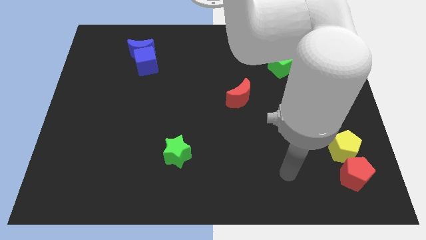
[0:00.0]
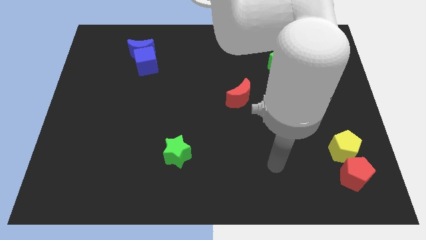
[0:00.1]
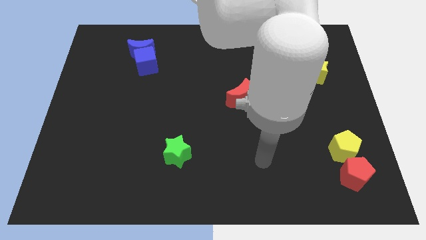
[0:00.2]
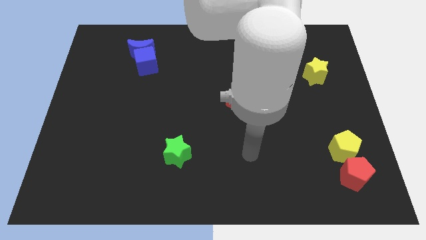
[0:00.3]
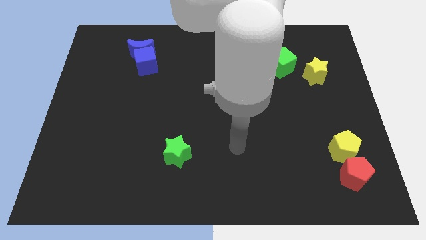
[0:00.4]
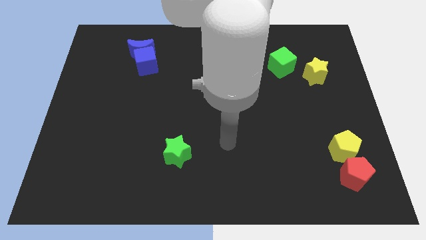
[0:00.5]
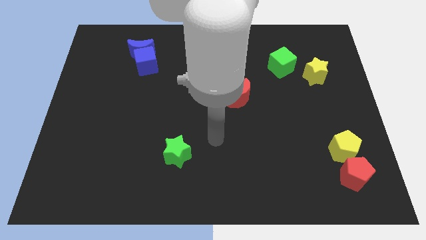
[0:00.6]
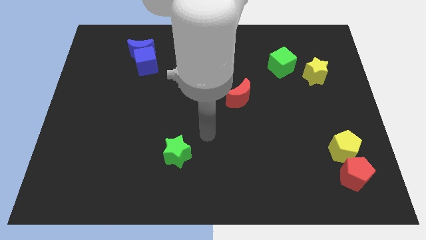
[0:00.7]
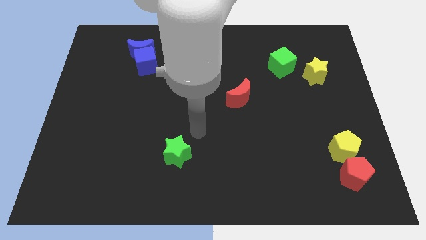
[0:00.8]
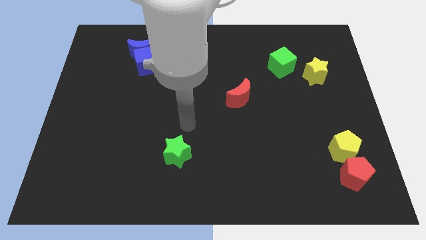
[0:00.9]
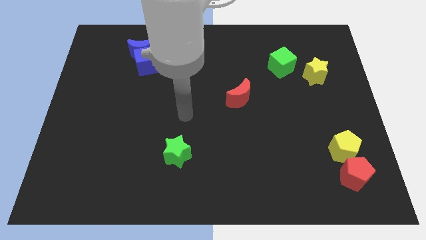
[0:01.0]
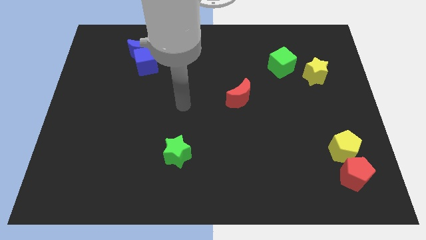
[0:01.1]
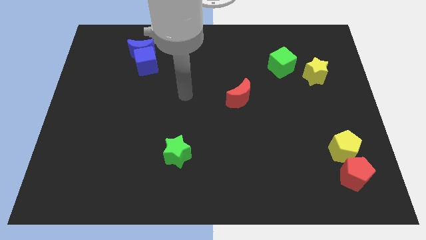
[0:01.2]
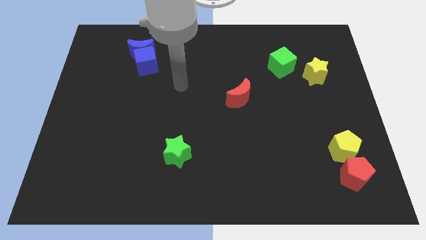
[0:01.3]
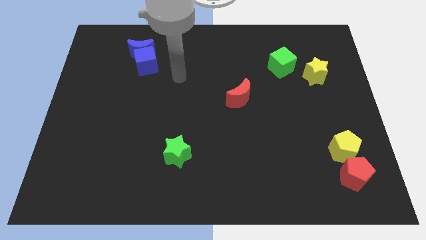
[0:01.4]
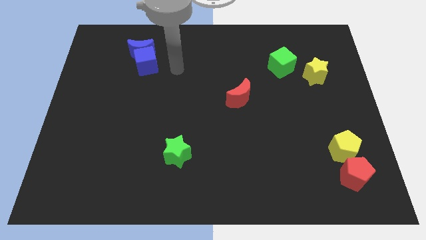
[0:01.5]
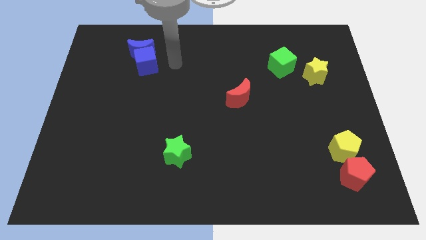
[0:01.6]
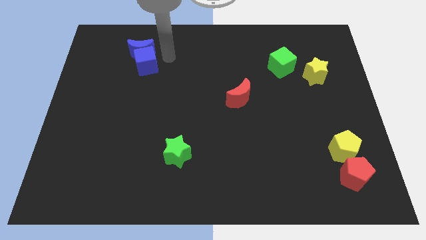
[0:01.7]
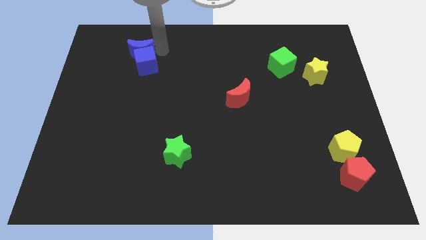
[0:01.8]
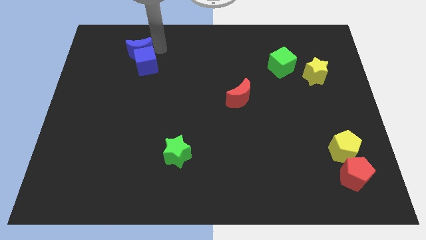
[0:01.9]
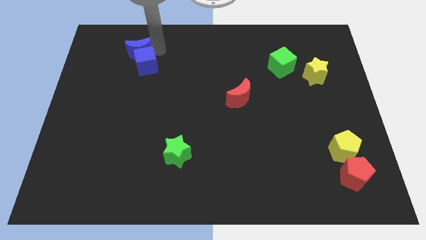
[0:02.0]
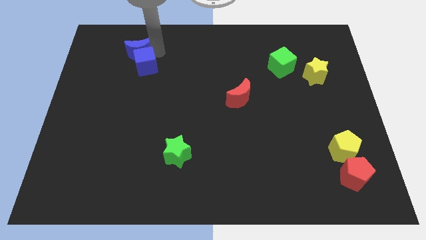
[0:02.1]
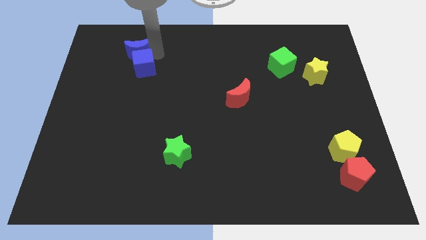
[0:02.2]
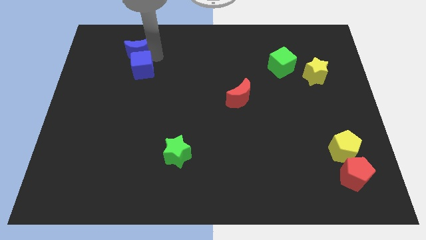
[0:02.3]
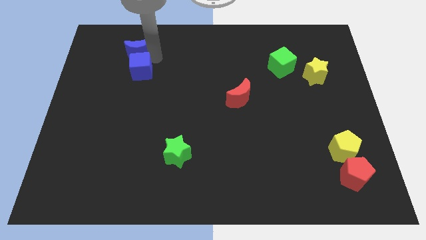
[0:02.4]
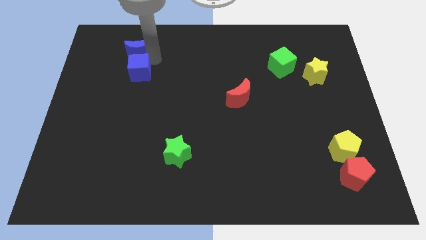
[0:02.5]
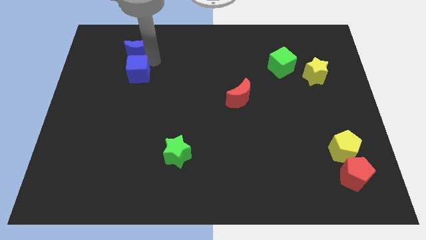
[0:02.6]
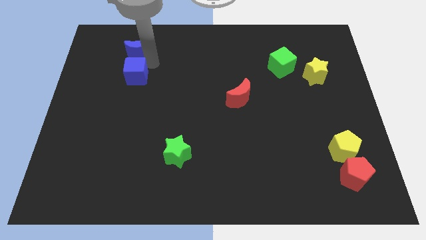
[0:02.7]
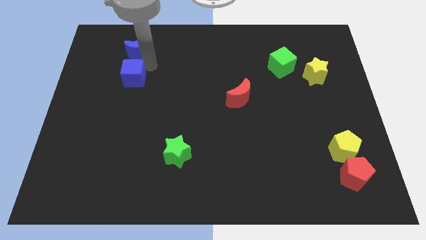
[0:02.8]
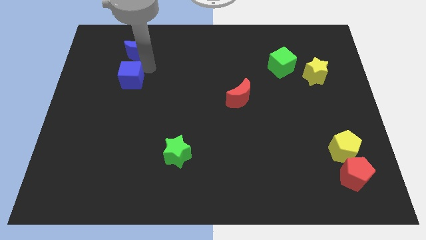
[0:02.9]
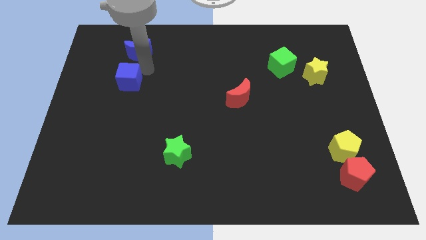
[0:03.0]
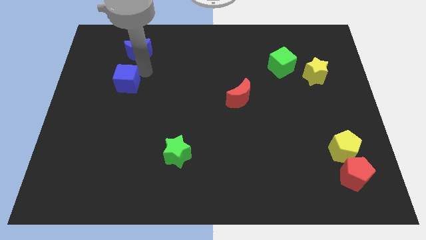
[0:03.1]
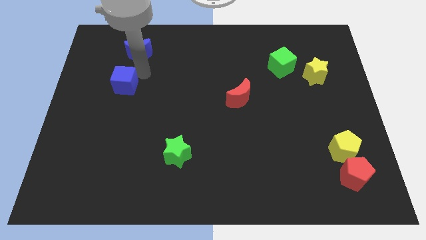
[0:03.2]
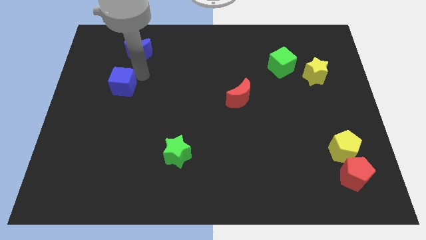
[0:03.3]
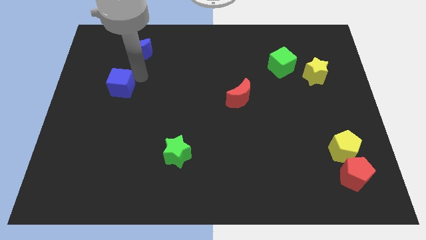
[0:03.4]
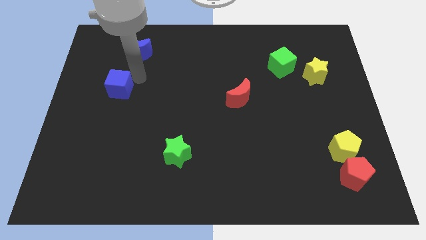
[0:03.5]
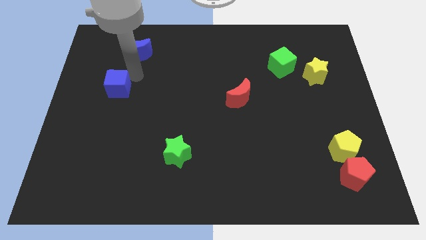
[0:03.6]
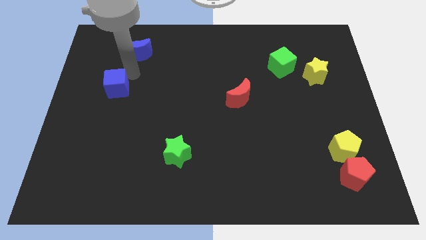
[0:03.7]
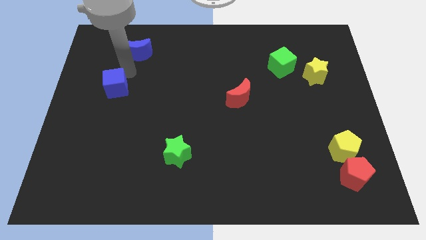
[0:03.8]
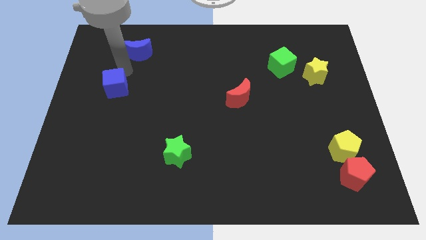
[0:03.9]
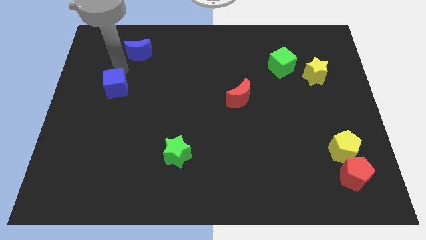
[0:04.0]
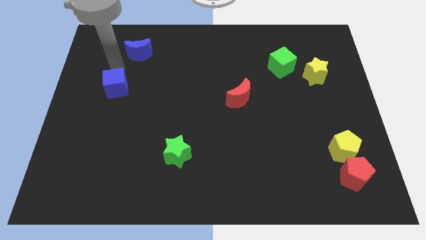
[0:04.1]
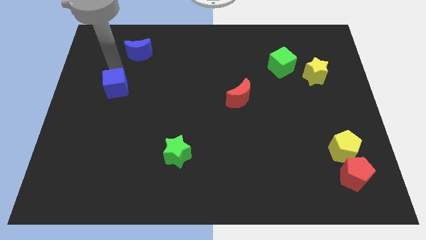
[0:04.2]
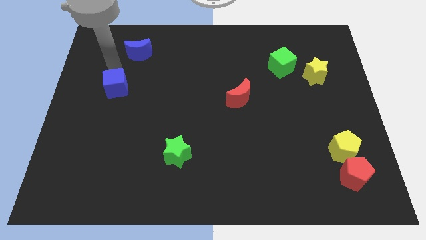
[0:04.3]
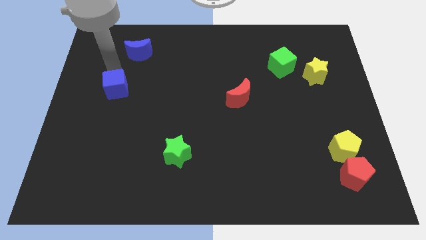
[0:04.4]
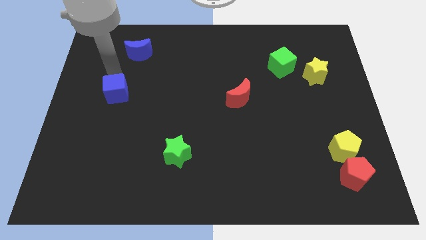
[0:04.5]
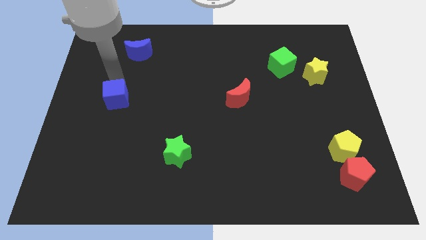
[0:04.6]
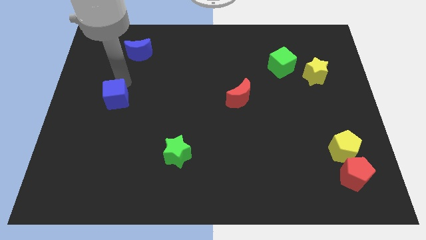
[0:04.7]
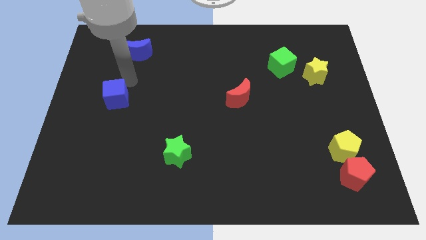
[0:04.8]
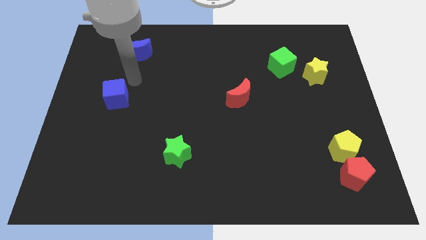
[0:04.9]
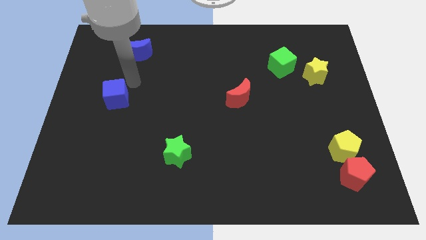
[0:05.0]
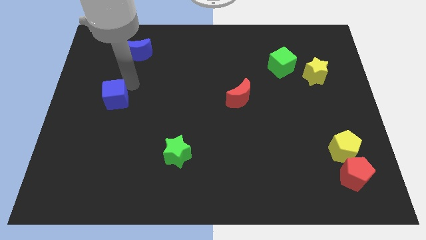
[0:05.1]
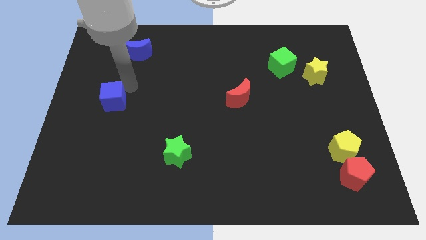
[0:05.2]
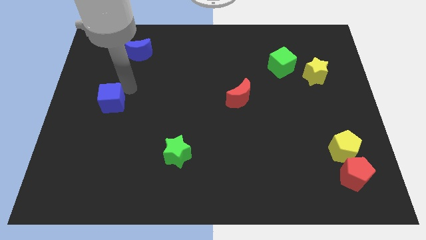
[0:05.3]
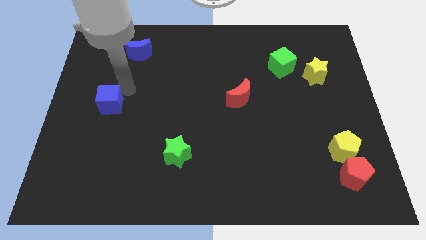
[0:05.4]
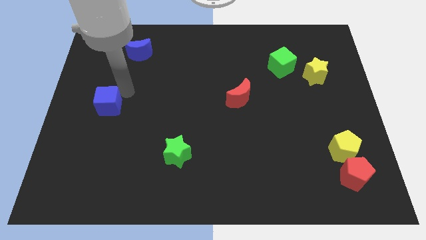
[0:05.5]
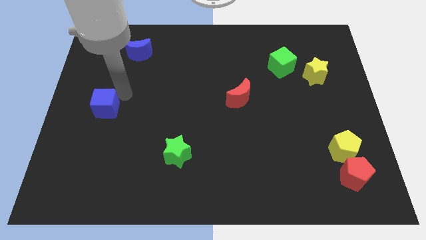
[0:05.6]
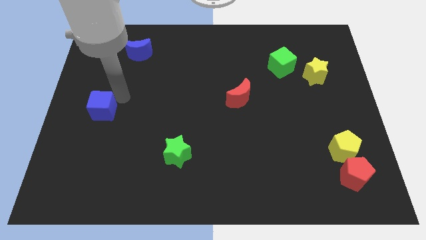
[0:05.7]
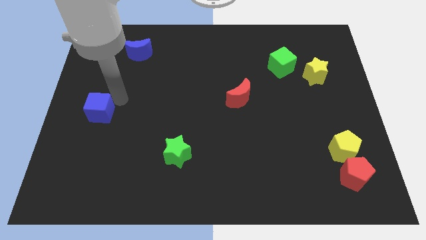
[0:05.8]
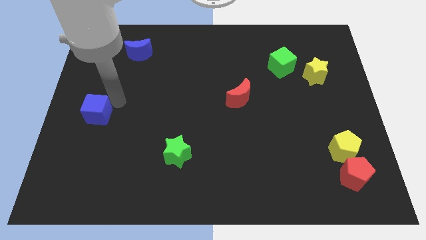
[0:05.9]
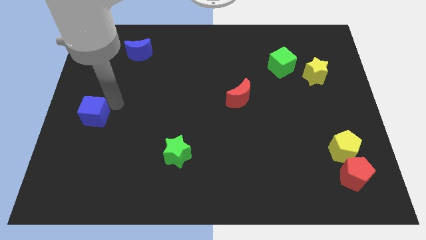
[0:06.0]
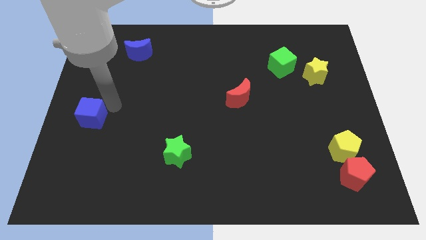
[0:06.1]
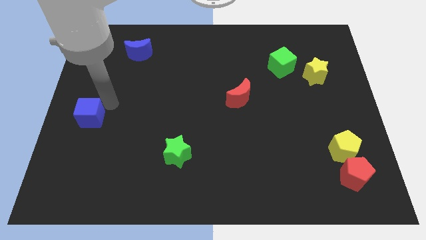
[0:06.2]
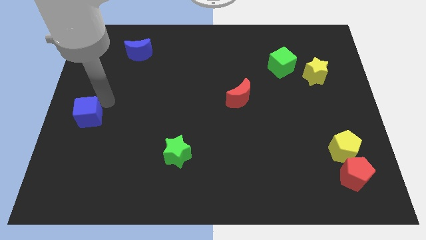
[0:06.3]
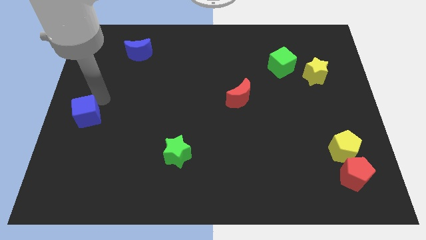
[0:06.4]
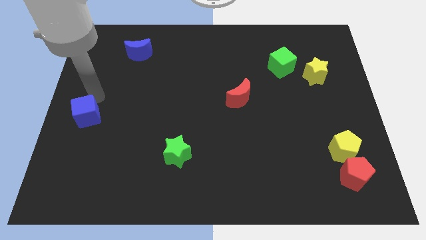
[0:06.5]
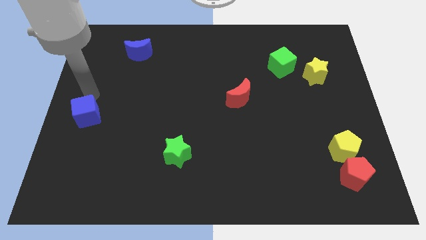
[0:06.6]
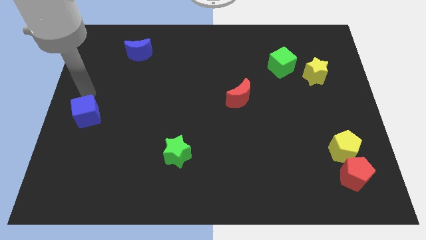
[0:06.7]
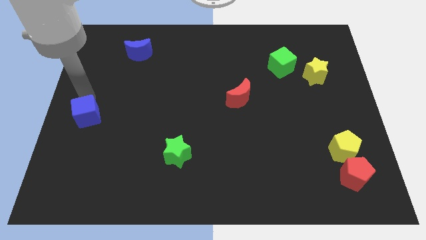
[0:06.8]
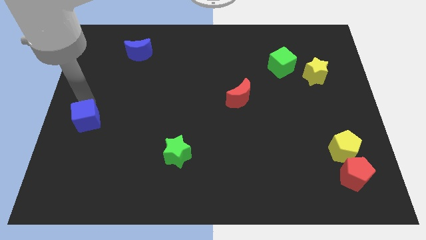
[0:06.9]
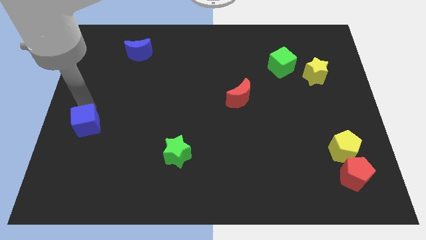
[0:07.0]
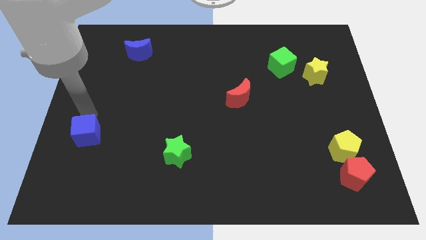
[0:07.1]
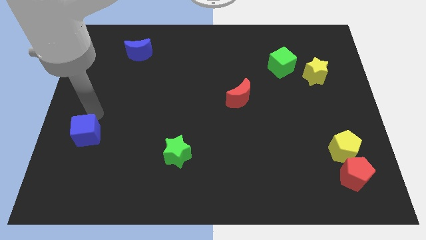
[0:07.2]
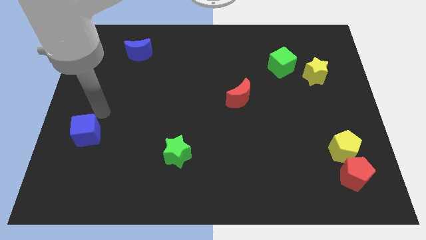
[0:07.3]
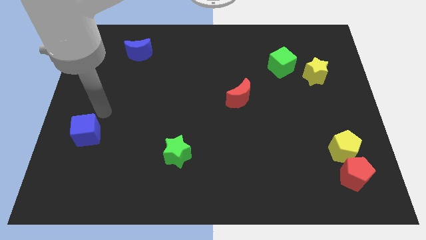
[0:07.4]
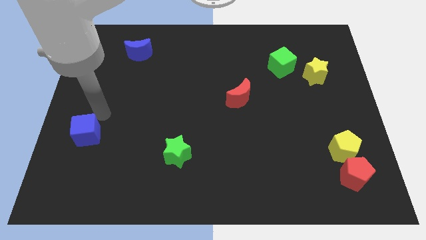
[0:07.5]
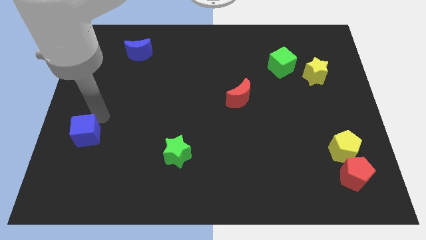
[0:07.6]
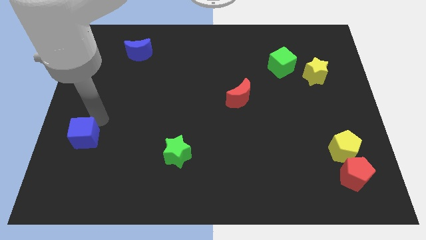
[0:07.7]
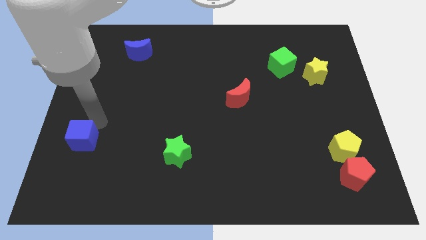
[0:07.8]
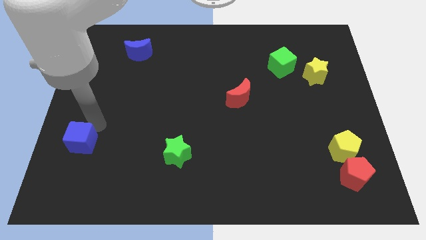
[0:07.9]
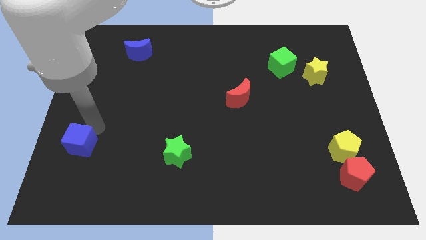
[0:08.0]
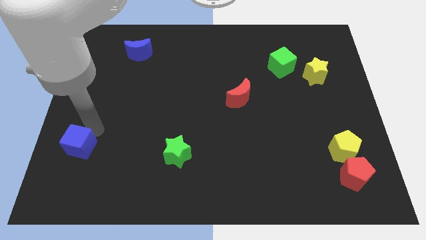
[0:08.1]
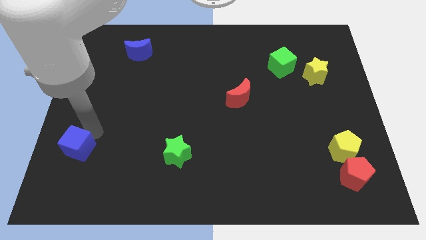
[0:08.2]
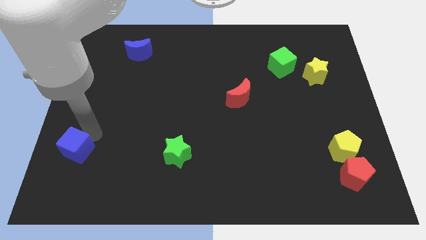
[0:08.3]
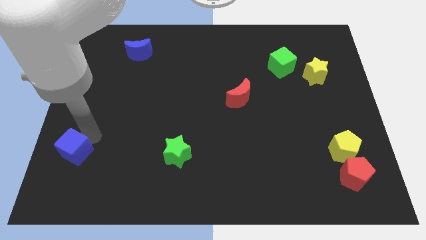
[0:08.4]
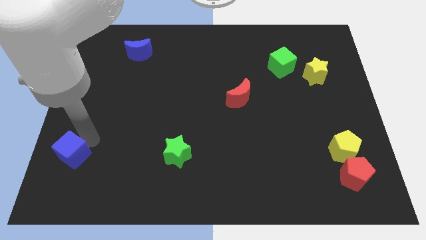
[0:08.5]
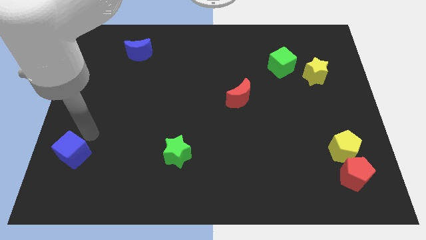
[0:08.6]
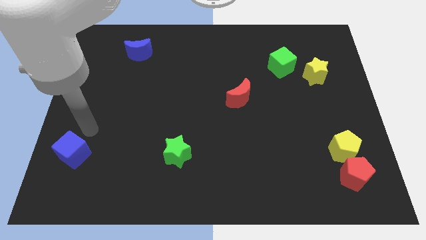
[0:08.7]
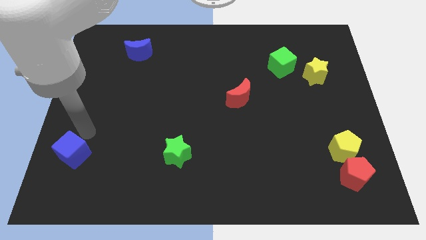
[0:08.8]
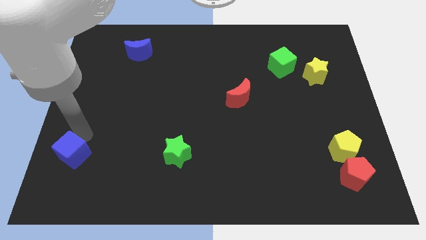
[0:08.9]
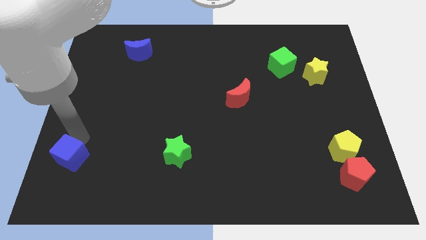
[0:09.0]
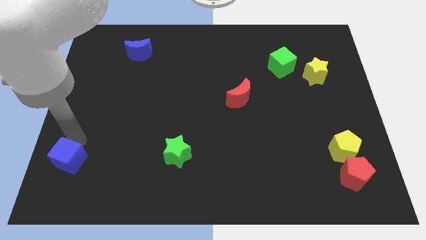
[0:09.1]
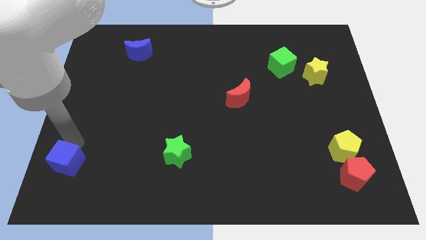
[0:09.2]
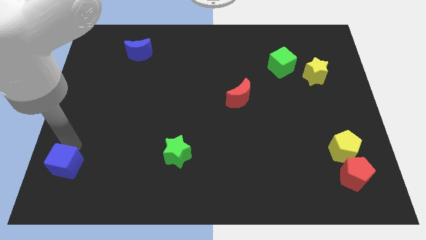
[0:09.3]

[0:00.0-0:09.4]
put the blue cube to the lower left corner
